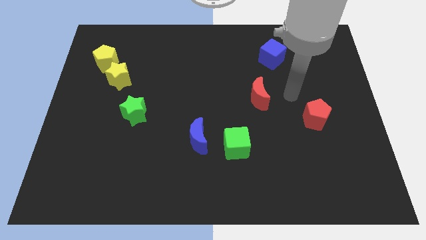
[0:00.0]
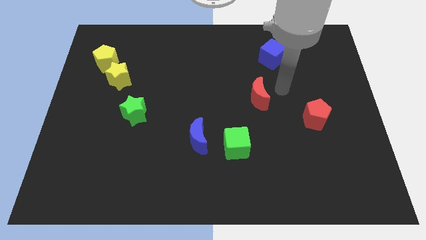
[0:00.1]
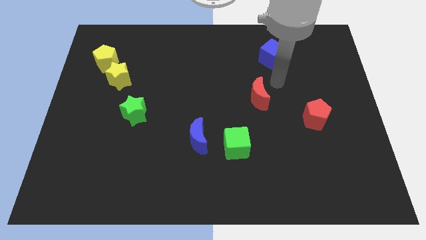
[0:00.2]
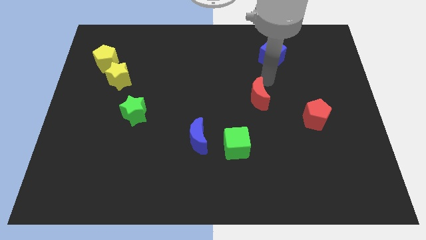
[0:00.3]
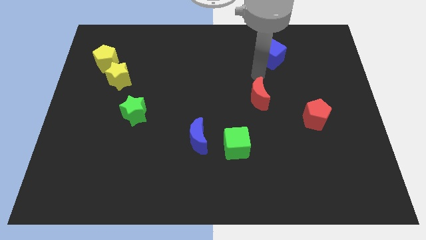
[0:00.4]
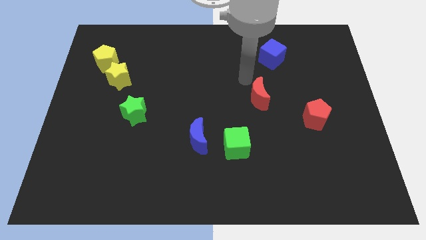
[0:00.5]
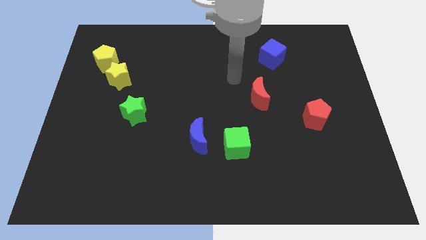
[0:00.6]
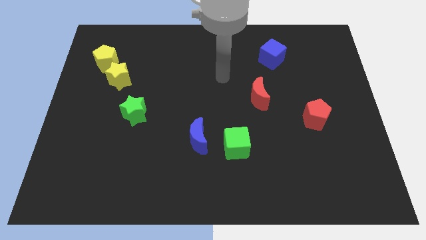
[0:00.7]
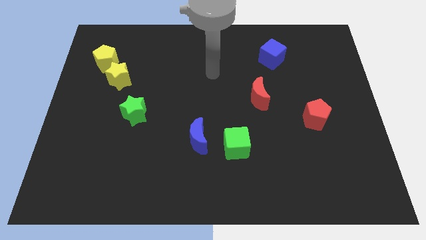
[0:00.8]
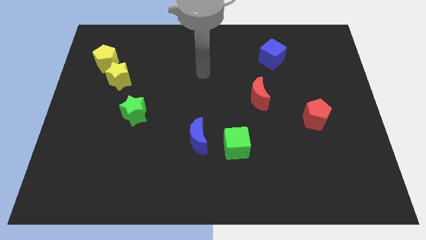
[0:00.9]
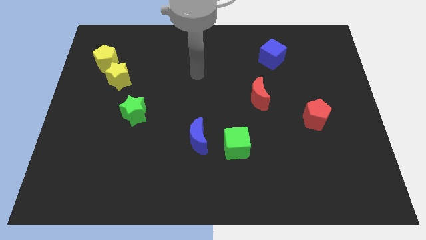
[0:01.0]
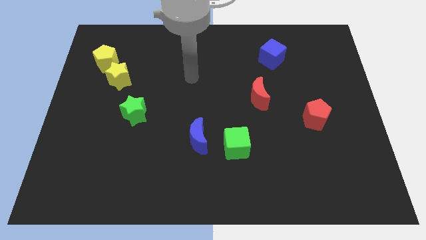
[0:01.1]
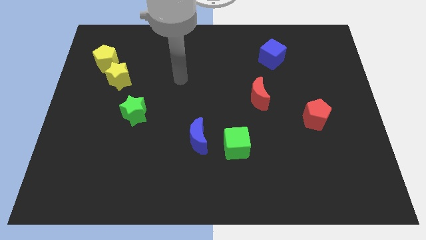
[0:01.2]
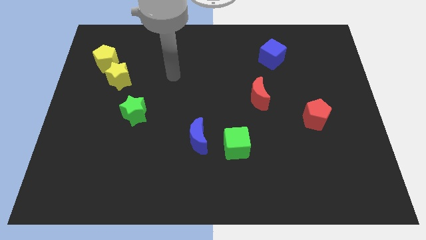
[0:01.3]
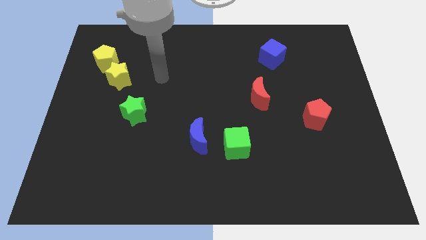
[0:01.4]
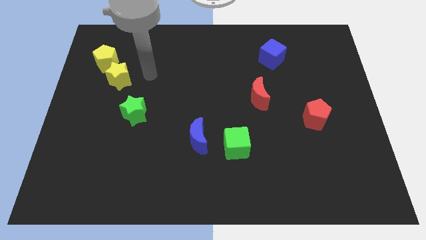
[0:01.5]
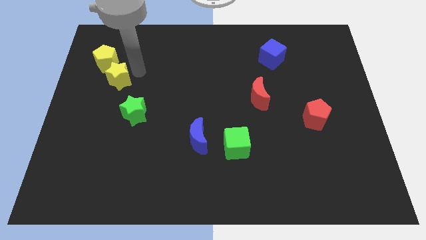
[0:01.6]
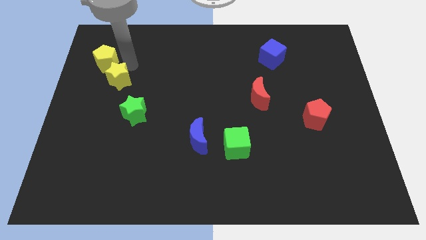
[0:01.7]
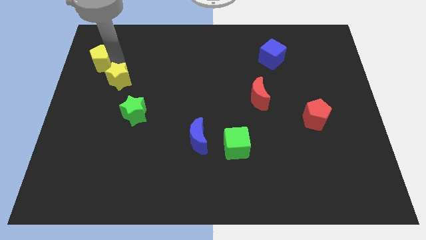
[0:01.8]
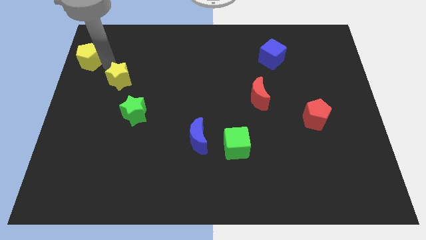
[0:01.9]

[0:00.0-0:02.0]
separate the yellow star from the yellow pentagon

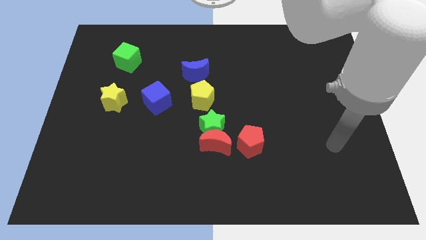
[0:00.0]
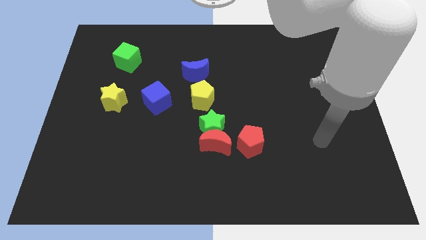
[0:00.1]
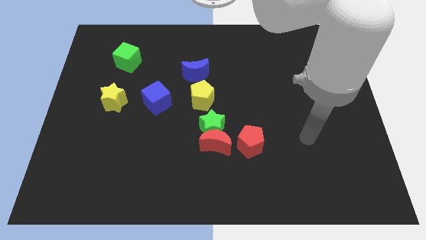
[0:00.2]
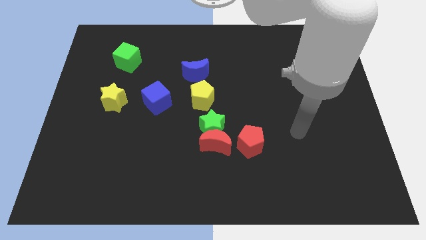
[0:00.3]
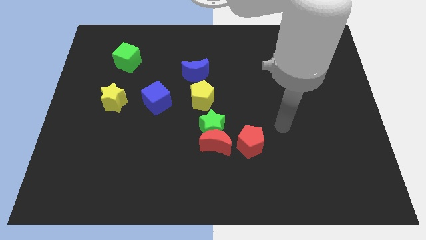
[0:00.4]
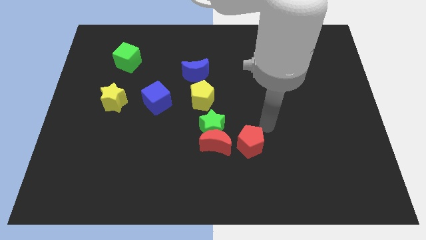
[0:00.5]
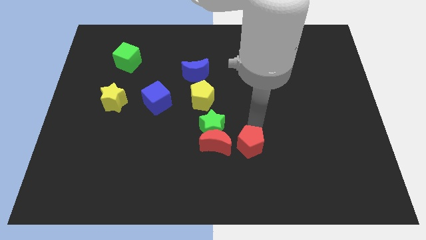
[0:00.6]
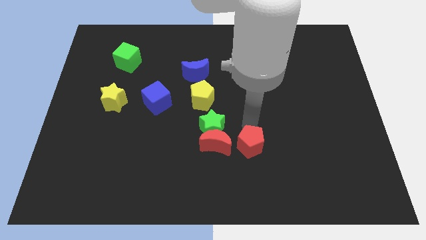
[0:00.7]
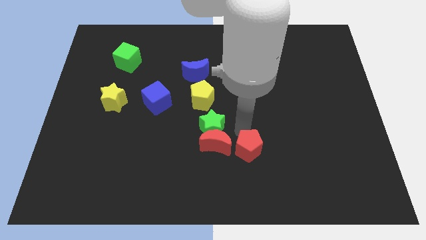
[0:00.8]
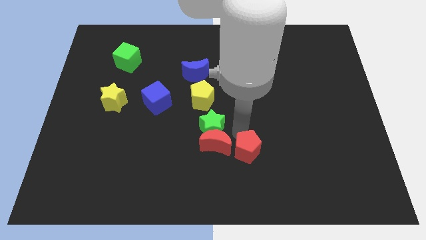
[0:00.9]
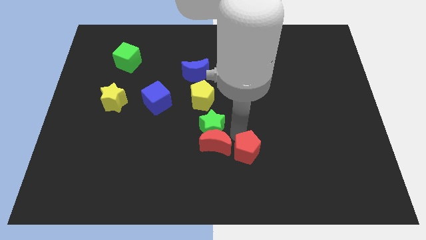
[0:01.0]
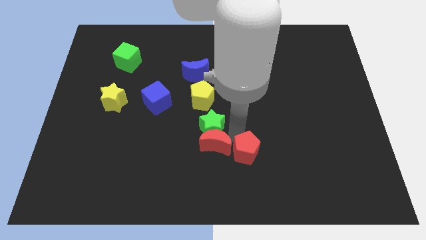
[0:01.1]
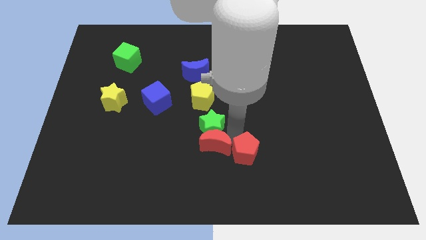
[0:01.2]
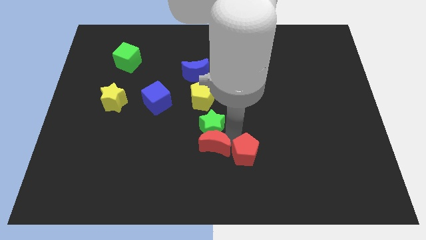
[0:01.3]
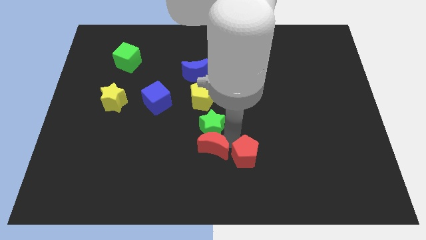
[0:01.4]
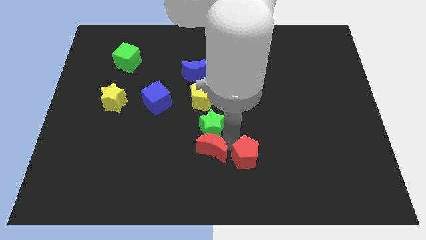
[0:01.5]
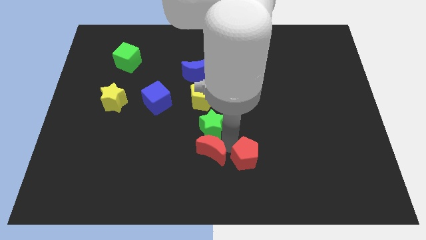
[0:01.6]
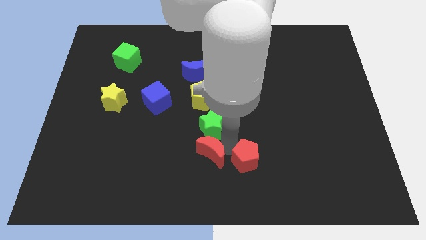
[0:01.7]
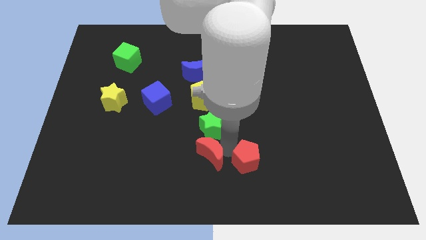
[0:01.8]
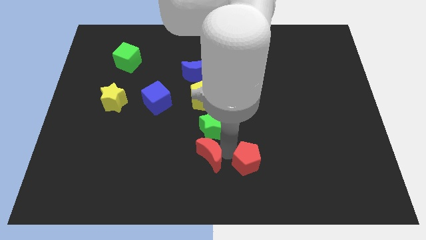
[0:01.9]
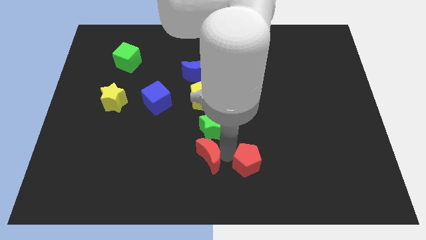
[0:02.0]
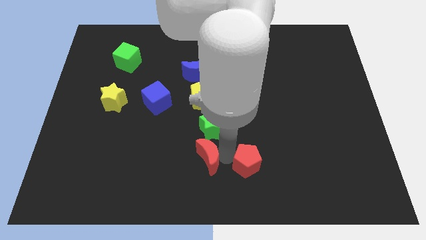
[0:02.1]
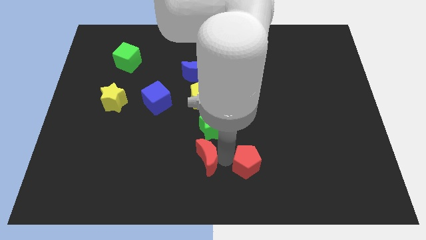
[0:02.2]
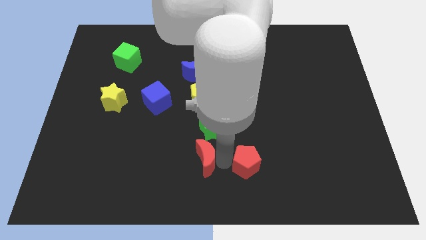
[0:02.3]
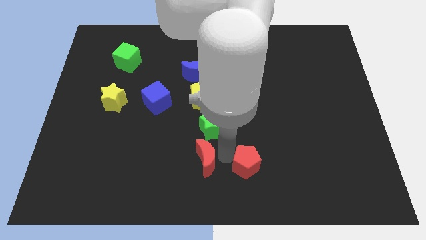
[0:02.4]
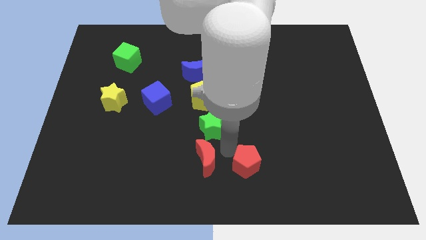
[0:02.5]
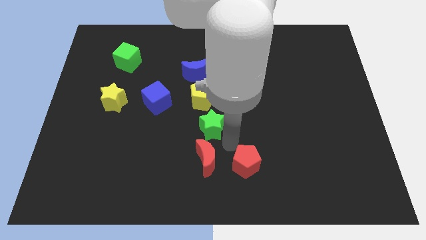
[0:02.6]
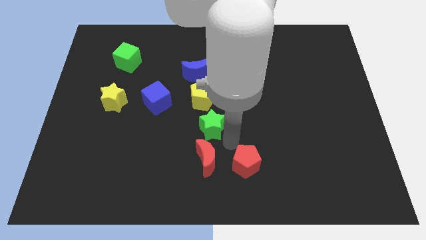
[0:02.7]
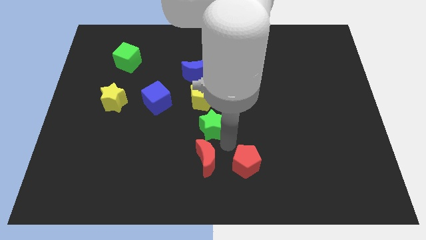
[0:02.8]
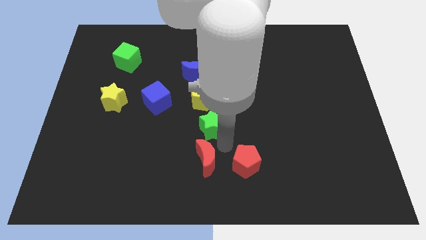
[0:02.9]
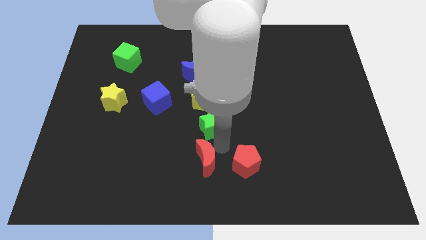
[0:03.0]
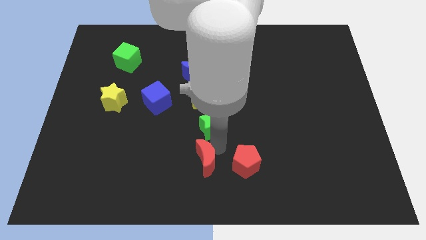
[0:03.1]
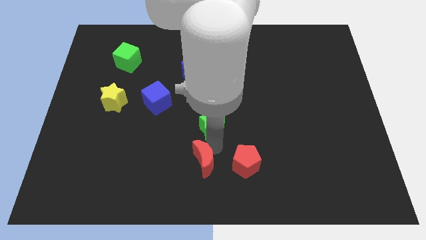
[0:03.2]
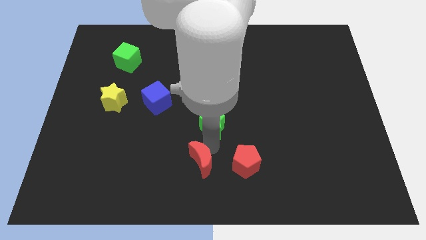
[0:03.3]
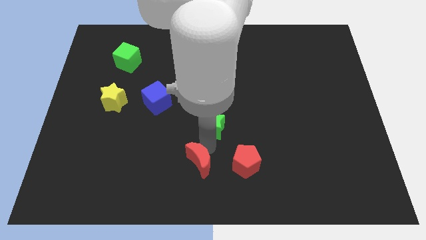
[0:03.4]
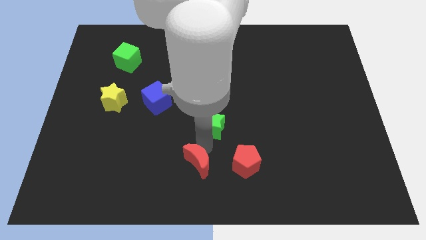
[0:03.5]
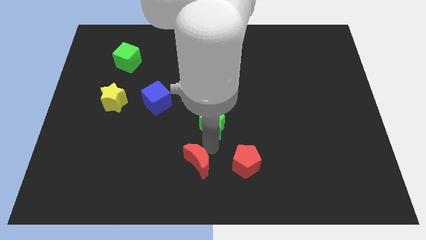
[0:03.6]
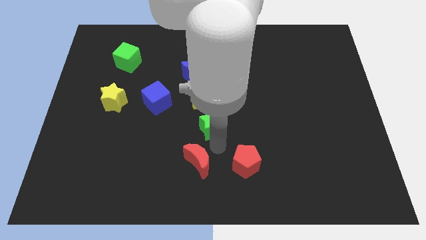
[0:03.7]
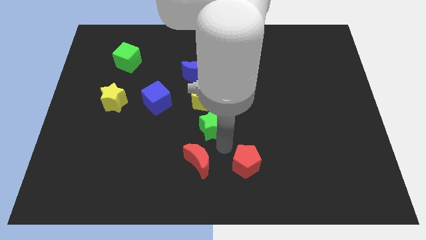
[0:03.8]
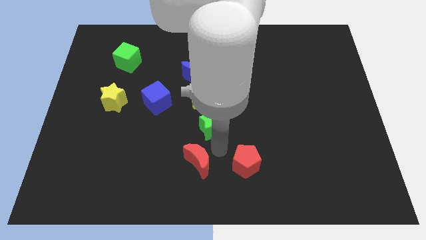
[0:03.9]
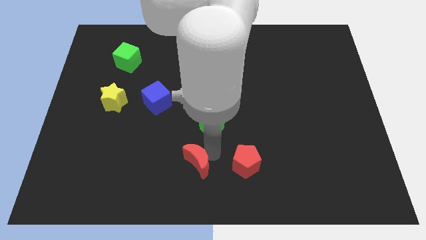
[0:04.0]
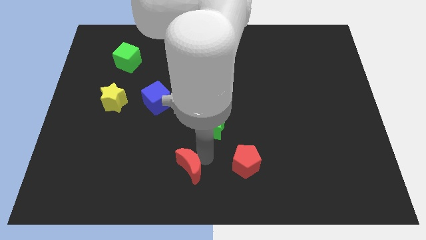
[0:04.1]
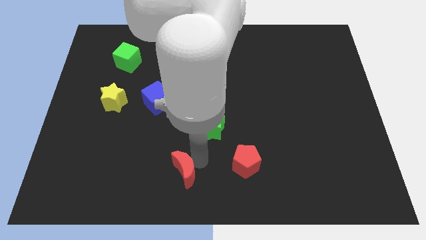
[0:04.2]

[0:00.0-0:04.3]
pull the red moon apart from the green star and red pentagon

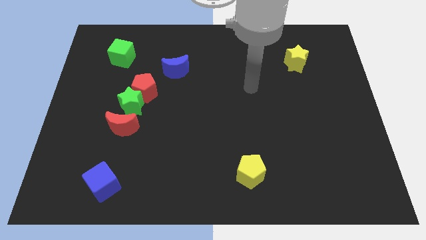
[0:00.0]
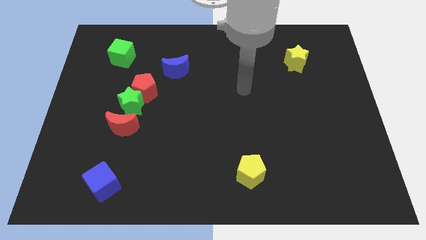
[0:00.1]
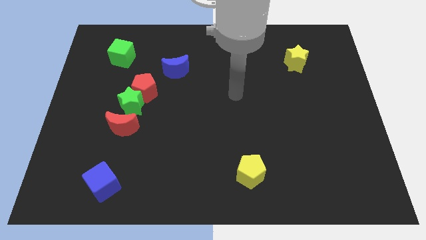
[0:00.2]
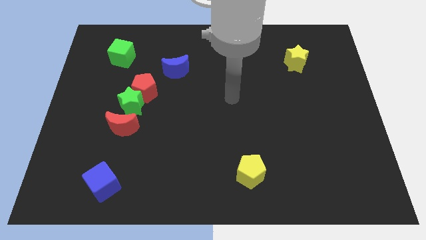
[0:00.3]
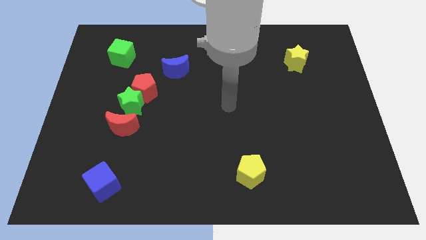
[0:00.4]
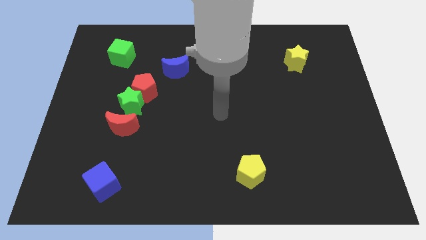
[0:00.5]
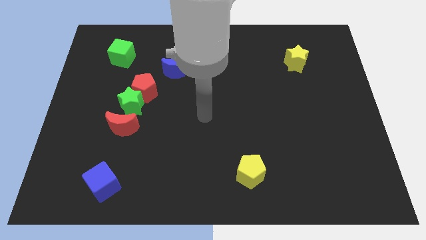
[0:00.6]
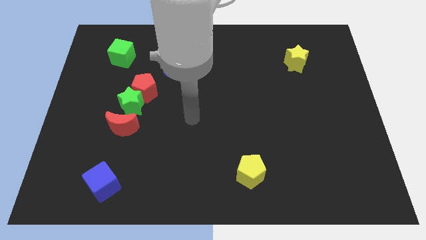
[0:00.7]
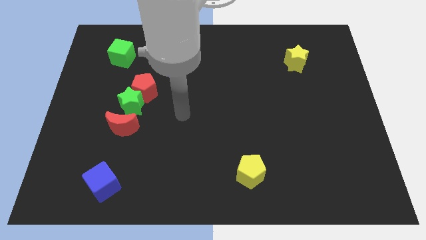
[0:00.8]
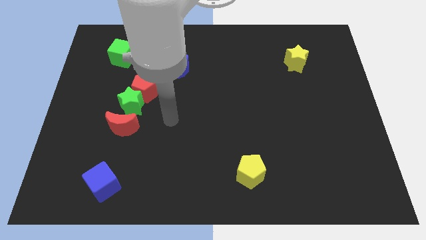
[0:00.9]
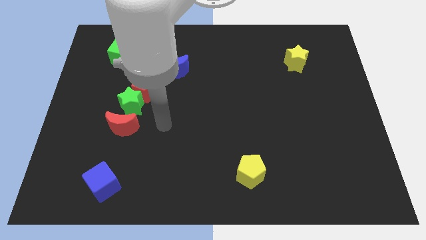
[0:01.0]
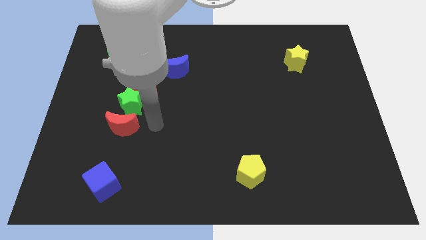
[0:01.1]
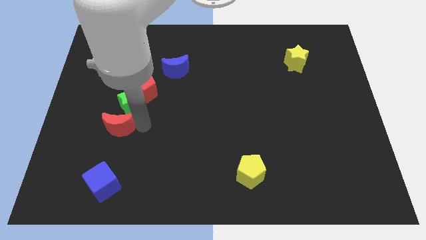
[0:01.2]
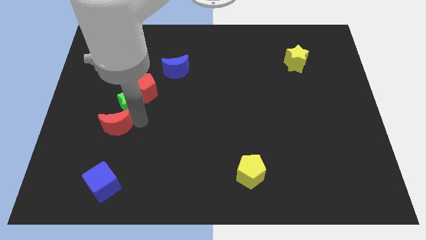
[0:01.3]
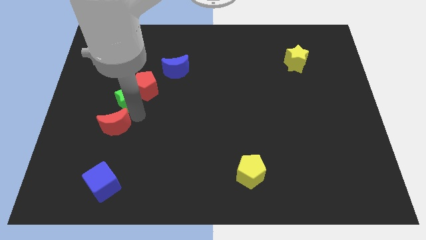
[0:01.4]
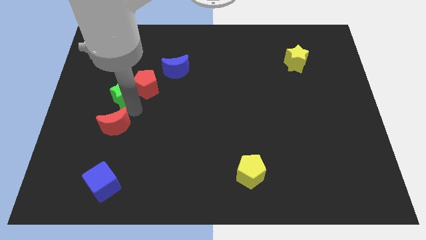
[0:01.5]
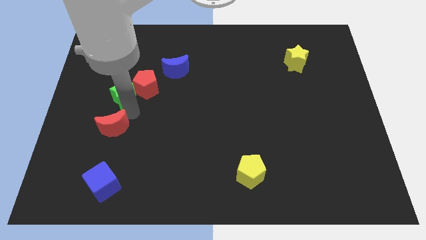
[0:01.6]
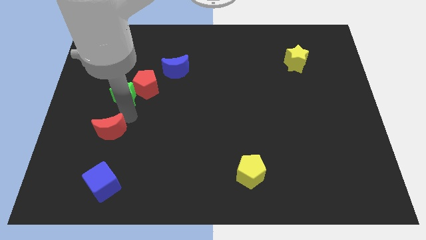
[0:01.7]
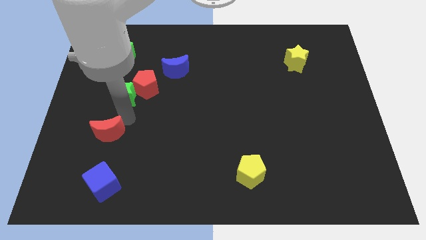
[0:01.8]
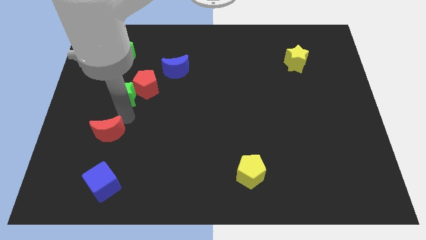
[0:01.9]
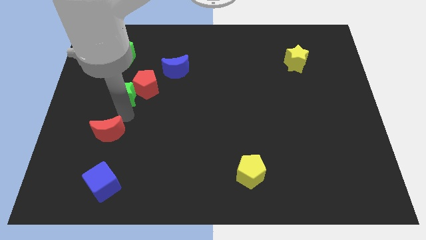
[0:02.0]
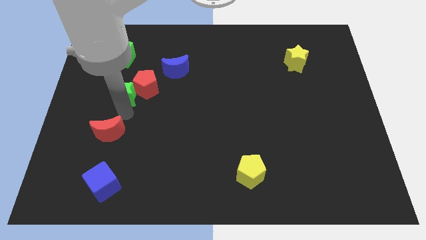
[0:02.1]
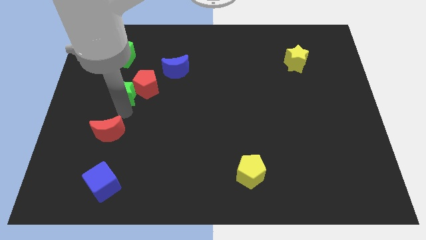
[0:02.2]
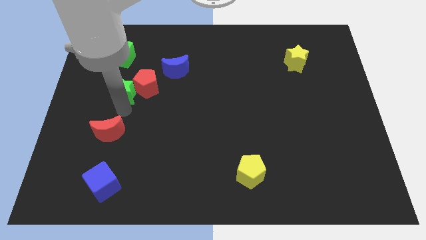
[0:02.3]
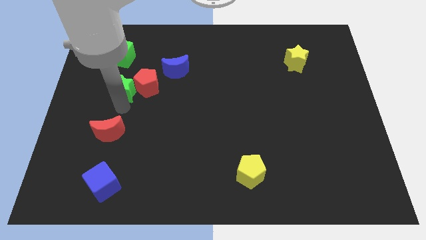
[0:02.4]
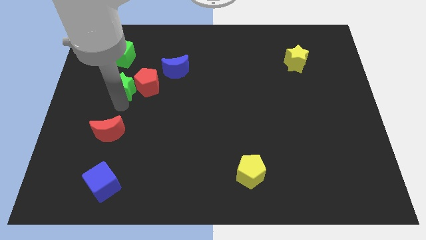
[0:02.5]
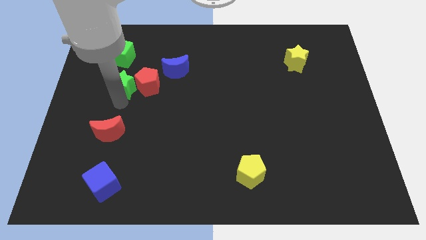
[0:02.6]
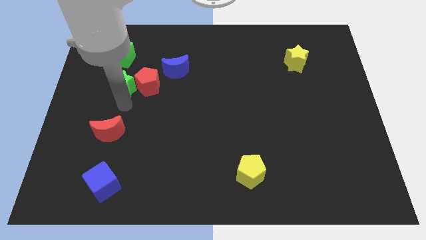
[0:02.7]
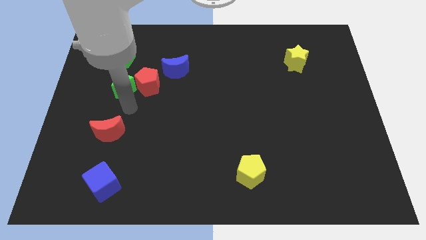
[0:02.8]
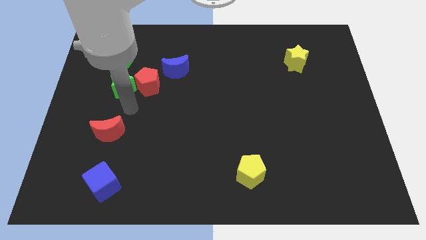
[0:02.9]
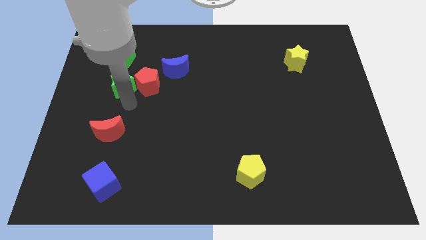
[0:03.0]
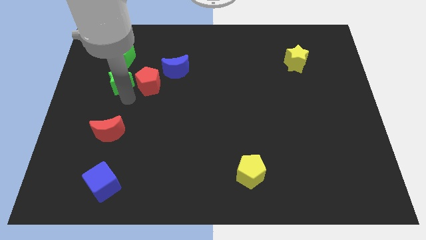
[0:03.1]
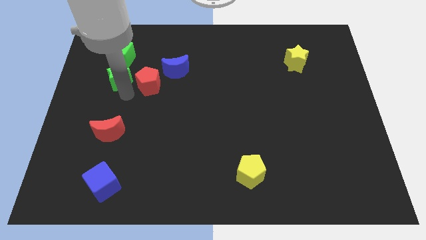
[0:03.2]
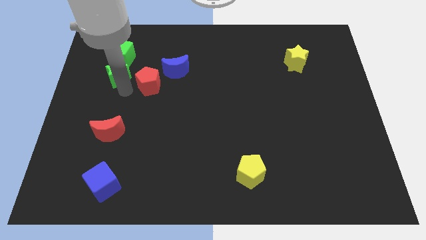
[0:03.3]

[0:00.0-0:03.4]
pull the green star apart from the red pentagon and red moon
